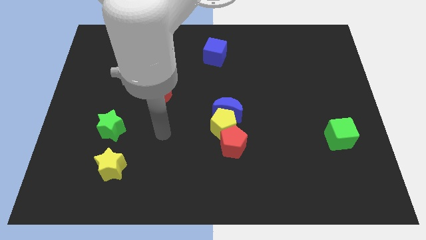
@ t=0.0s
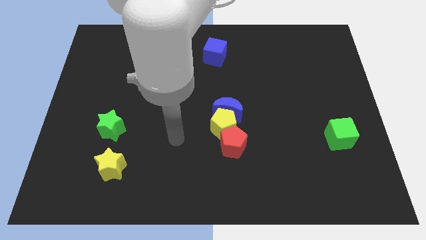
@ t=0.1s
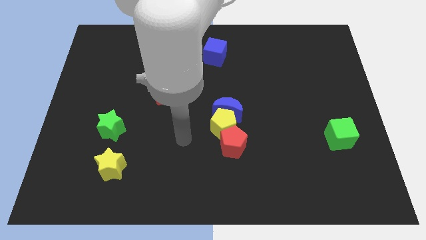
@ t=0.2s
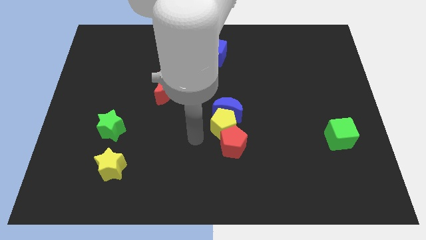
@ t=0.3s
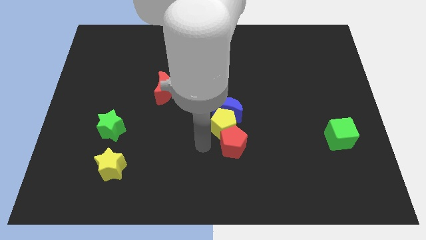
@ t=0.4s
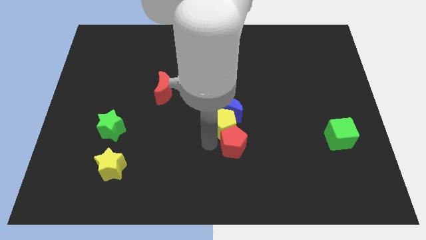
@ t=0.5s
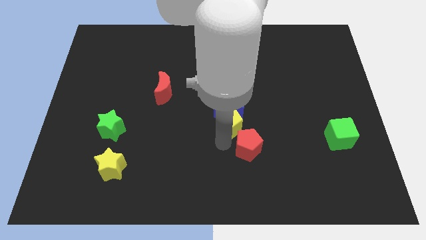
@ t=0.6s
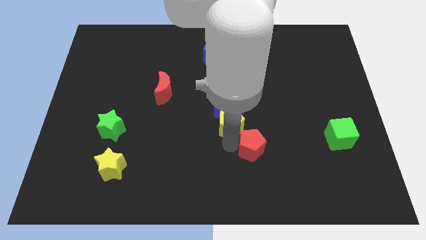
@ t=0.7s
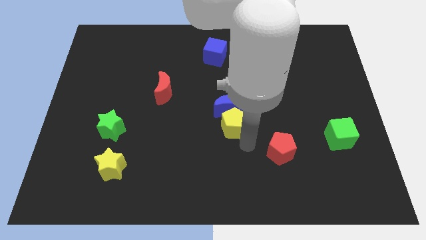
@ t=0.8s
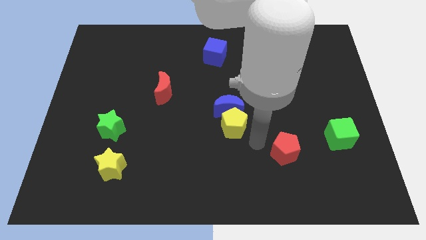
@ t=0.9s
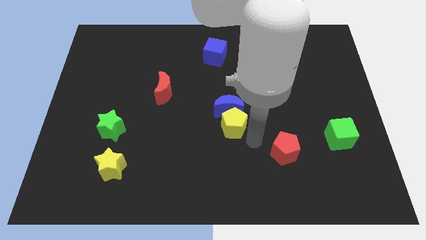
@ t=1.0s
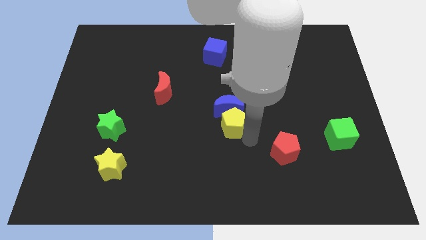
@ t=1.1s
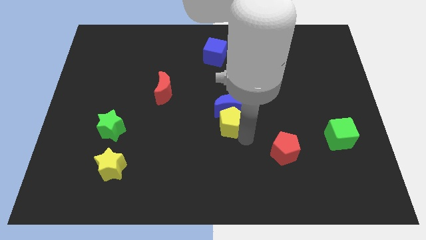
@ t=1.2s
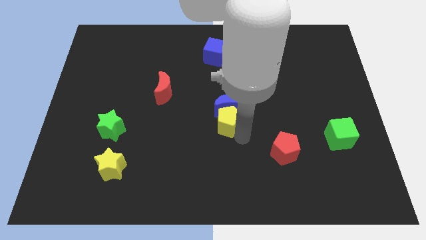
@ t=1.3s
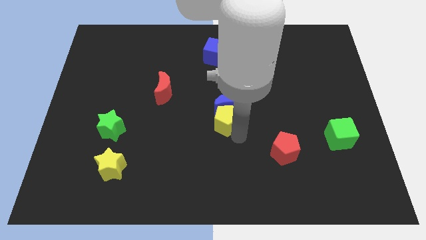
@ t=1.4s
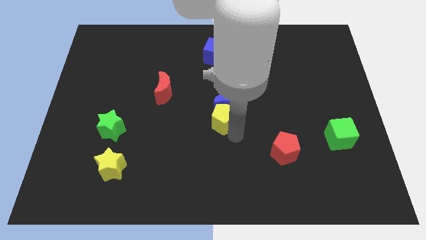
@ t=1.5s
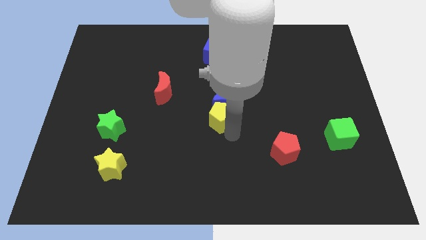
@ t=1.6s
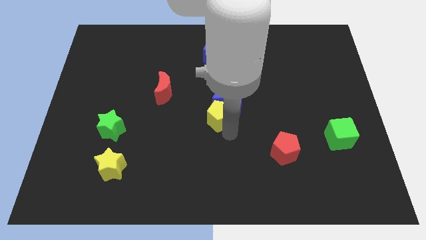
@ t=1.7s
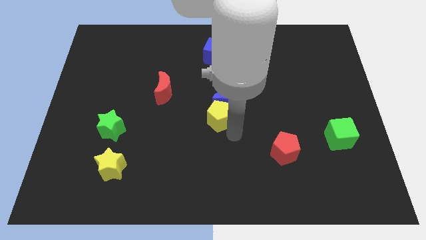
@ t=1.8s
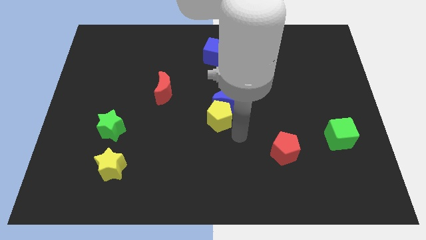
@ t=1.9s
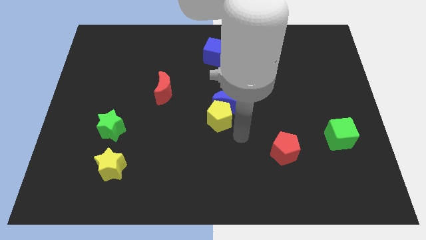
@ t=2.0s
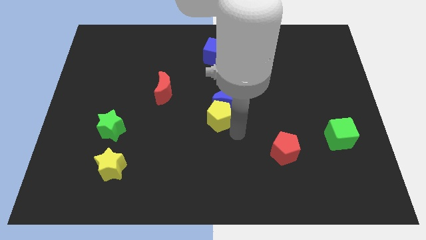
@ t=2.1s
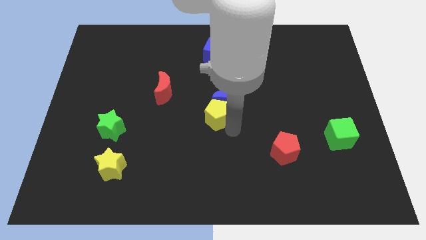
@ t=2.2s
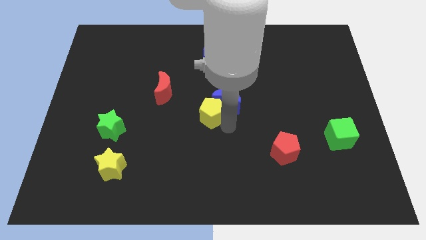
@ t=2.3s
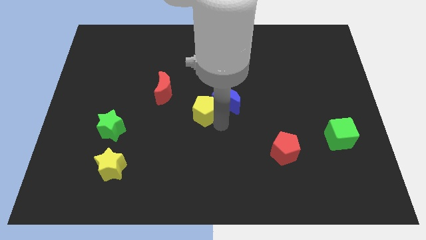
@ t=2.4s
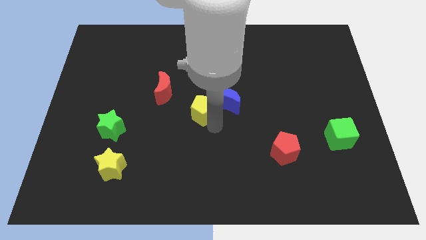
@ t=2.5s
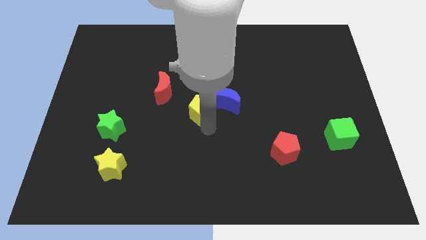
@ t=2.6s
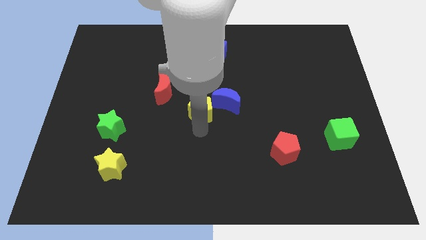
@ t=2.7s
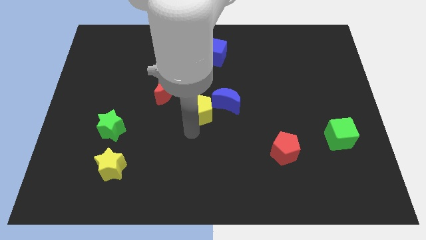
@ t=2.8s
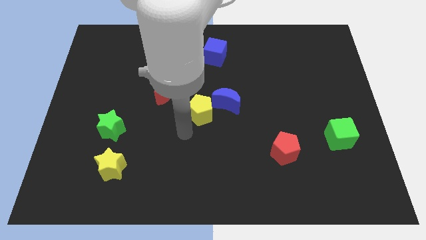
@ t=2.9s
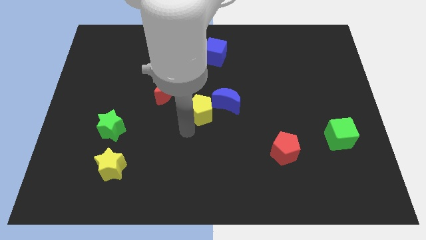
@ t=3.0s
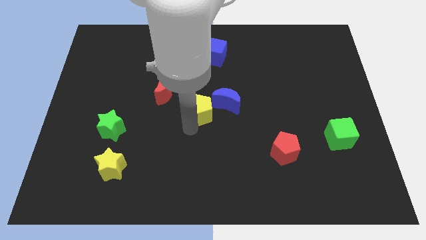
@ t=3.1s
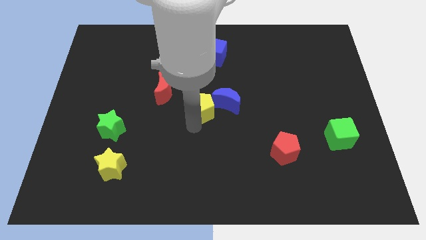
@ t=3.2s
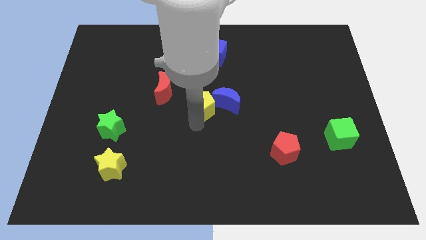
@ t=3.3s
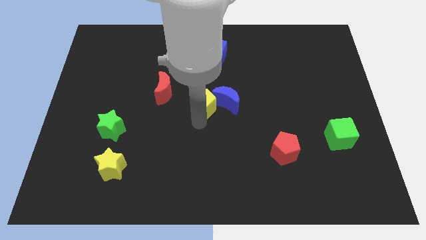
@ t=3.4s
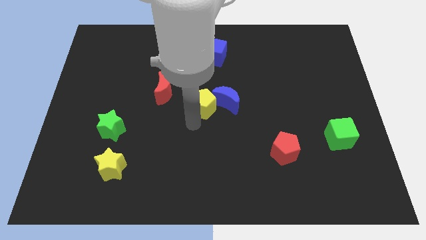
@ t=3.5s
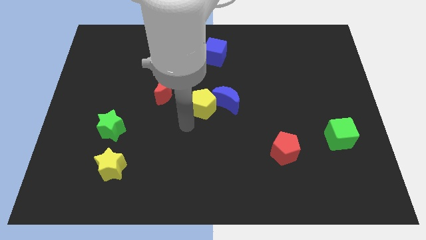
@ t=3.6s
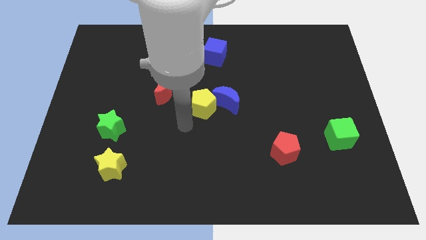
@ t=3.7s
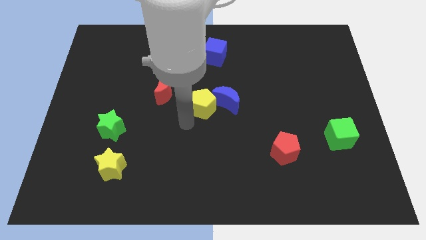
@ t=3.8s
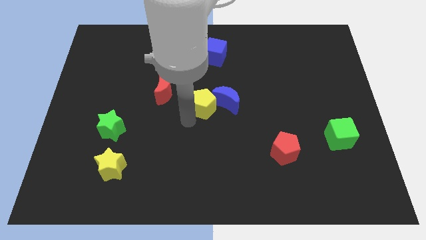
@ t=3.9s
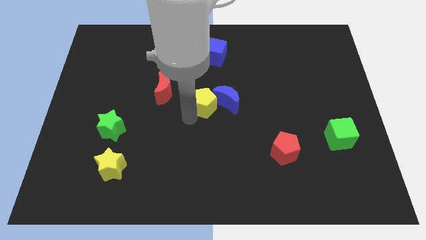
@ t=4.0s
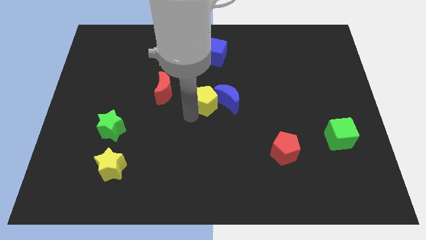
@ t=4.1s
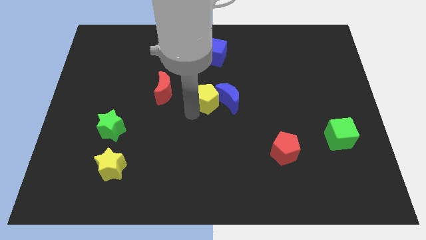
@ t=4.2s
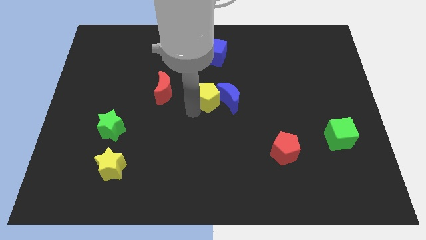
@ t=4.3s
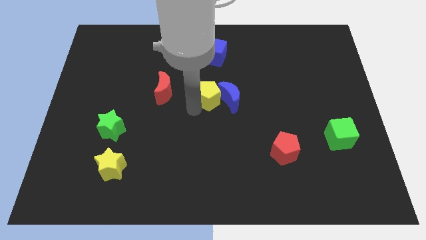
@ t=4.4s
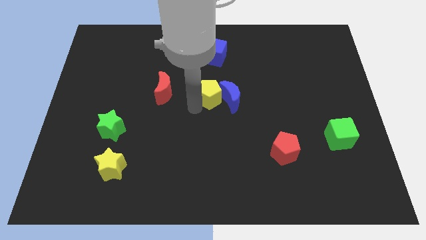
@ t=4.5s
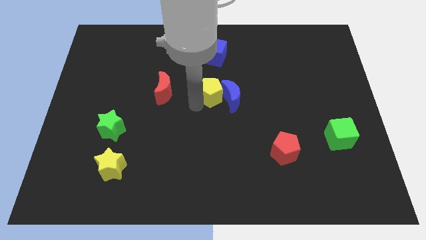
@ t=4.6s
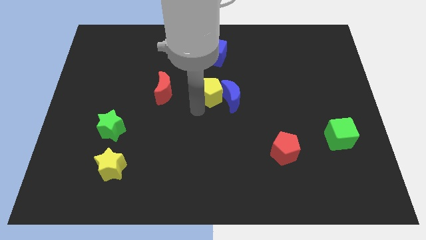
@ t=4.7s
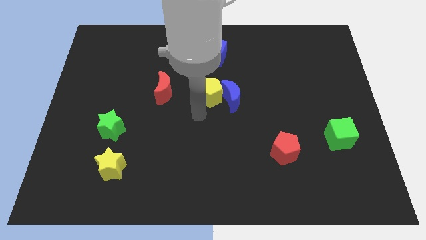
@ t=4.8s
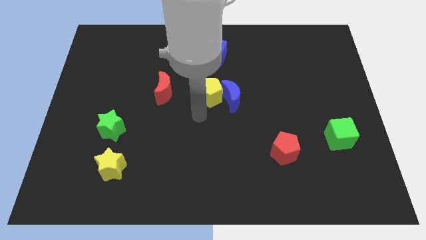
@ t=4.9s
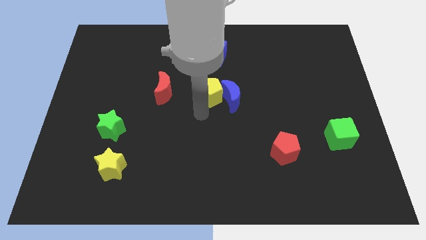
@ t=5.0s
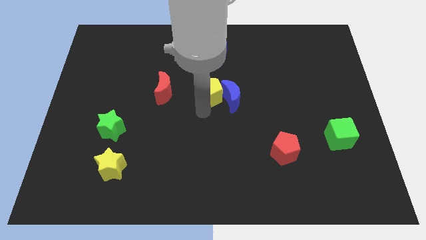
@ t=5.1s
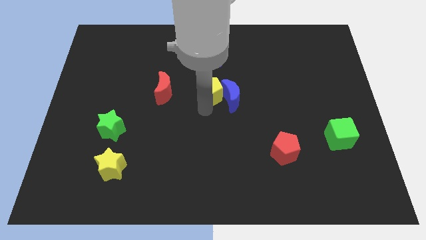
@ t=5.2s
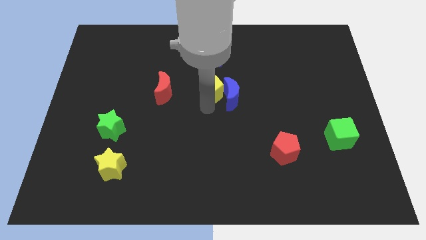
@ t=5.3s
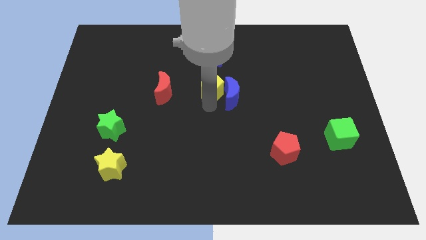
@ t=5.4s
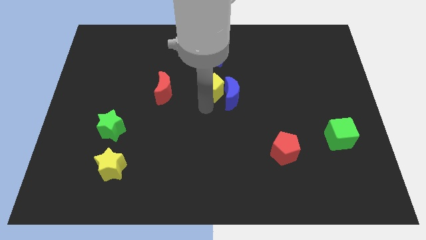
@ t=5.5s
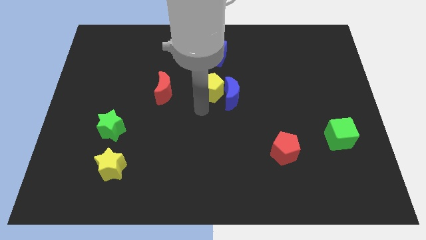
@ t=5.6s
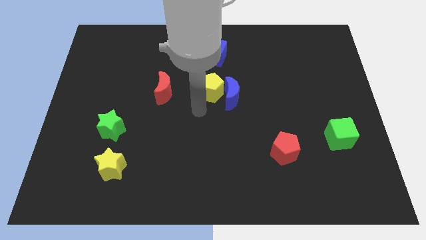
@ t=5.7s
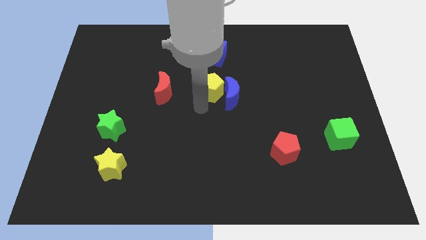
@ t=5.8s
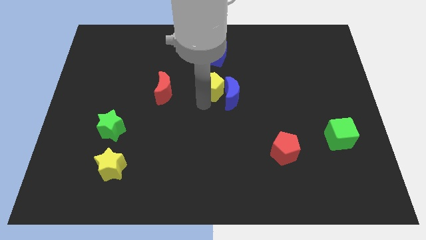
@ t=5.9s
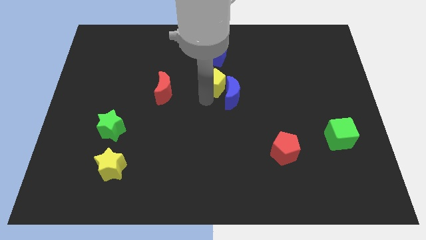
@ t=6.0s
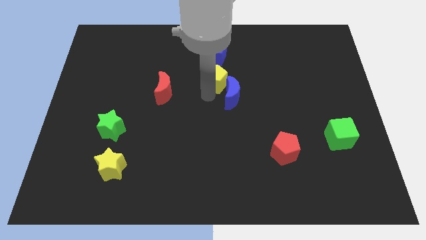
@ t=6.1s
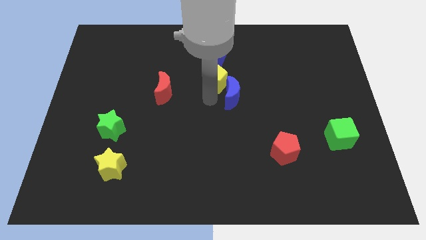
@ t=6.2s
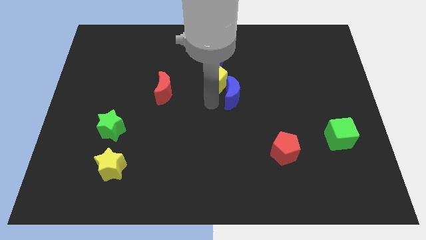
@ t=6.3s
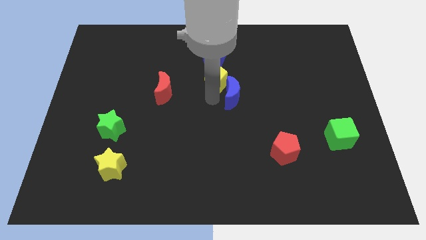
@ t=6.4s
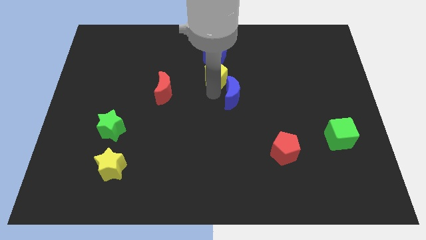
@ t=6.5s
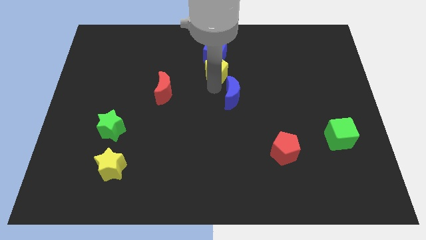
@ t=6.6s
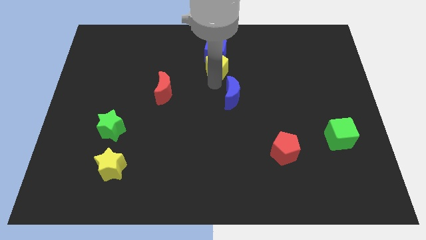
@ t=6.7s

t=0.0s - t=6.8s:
move the yellow pentagon to the blue cube

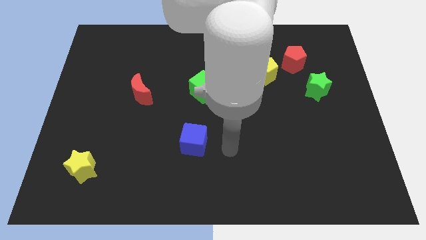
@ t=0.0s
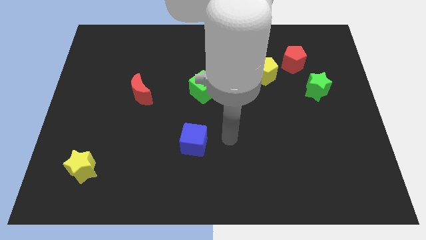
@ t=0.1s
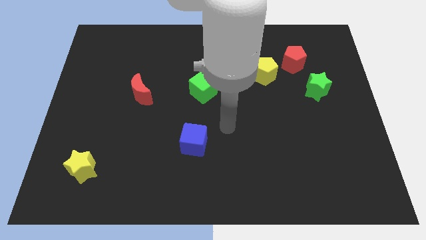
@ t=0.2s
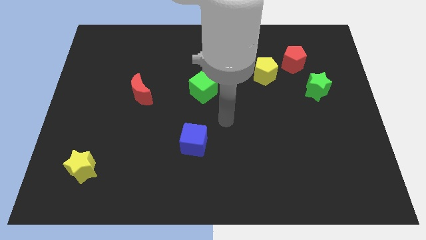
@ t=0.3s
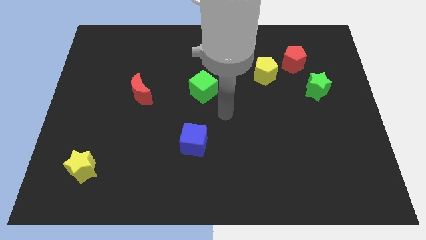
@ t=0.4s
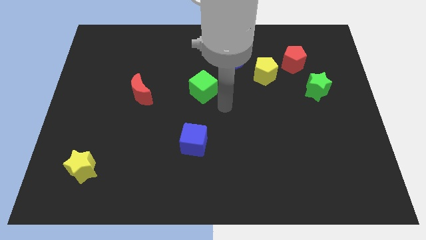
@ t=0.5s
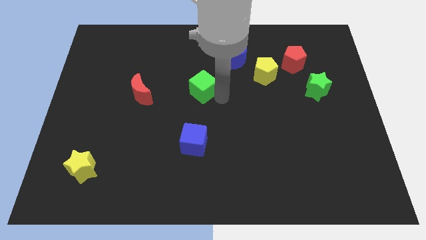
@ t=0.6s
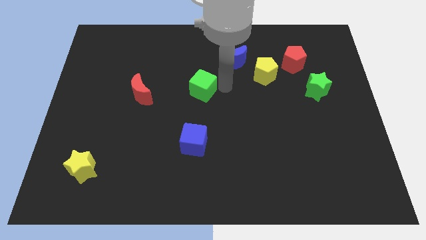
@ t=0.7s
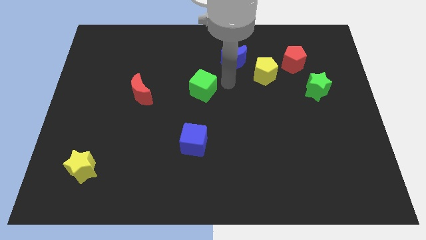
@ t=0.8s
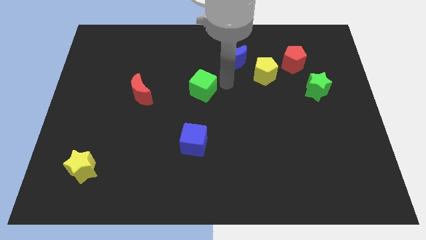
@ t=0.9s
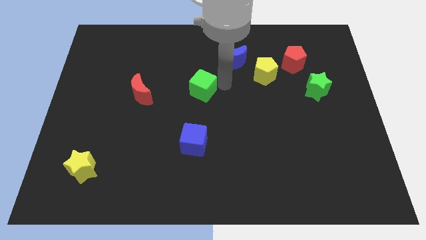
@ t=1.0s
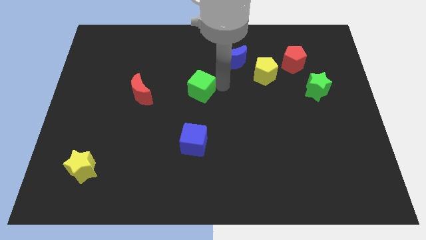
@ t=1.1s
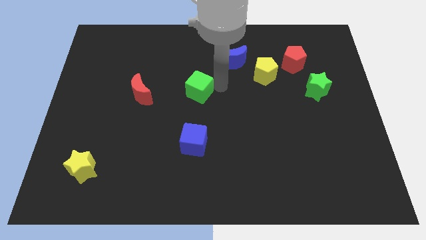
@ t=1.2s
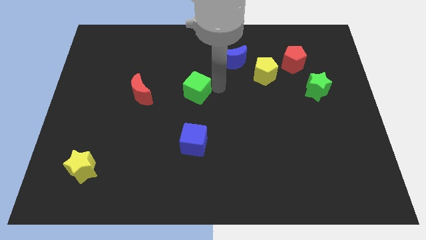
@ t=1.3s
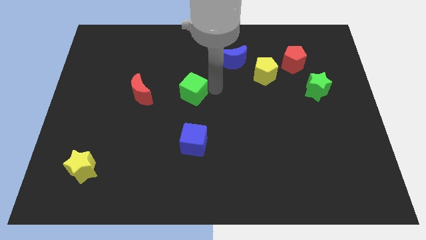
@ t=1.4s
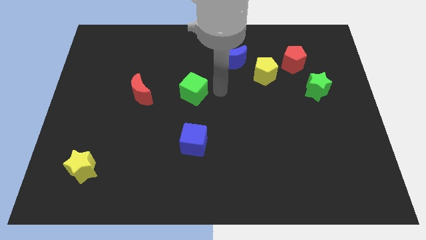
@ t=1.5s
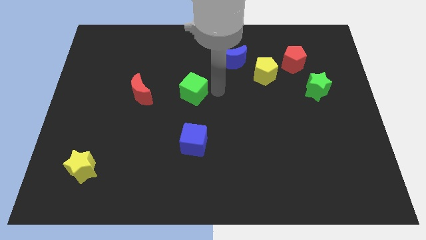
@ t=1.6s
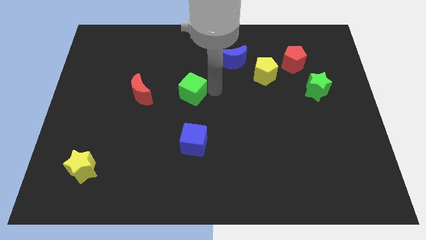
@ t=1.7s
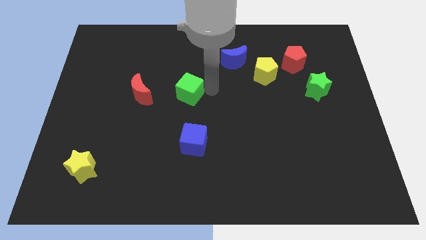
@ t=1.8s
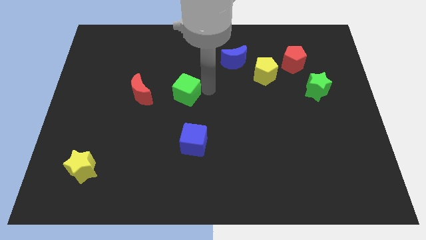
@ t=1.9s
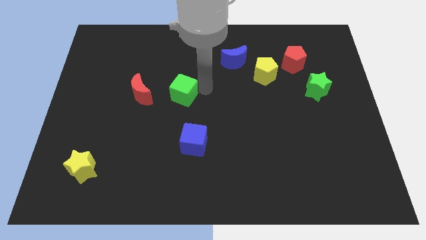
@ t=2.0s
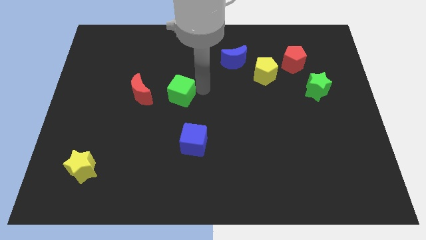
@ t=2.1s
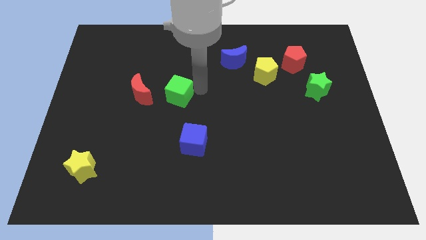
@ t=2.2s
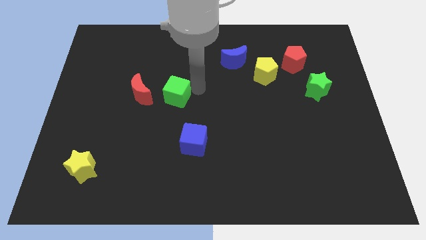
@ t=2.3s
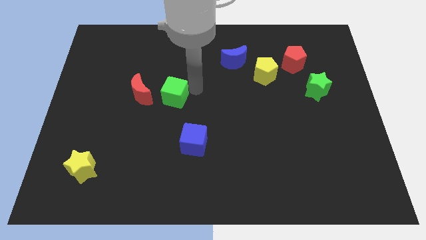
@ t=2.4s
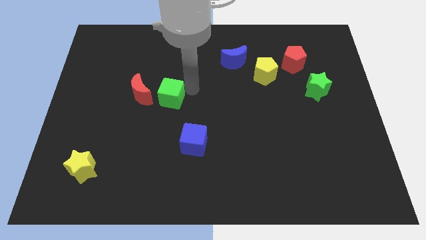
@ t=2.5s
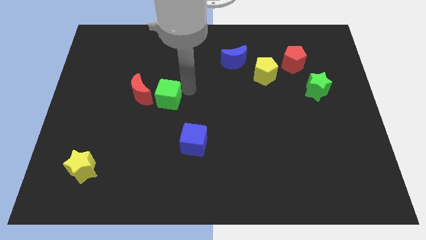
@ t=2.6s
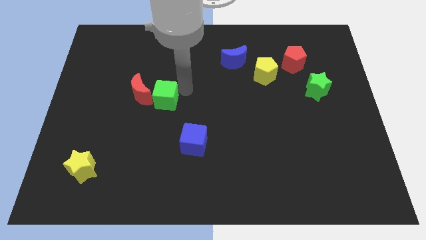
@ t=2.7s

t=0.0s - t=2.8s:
move the green cube to the red moon
